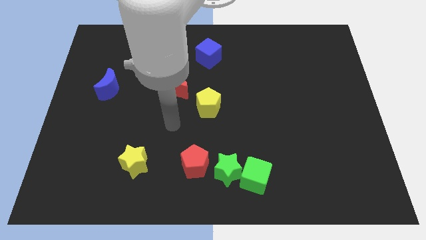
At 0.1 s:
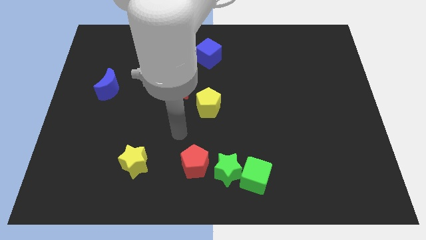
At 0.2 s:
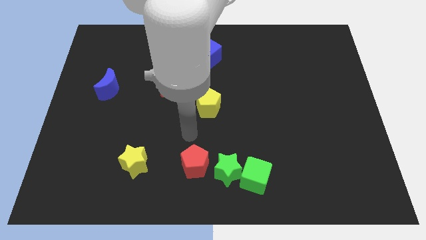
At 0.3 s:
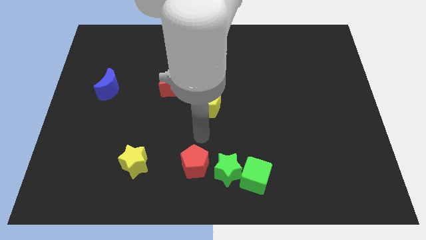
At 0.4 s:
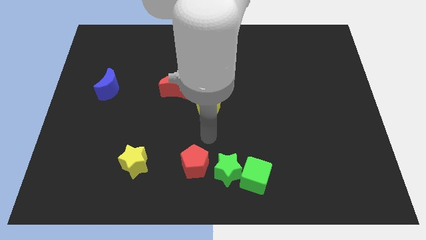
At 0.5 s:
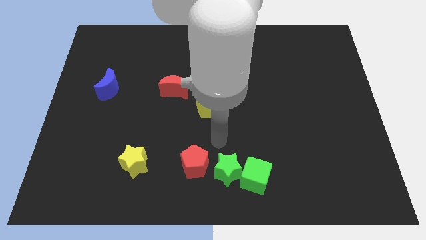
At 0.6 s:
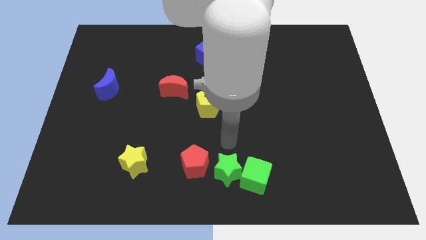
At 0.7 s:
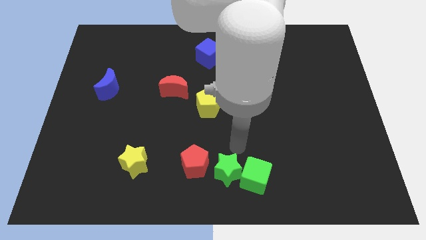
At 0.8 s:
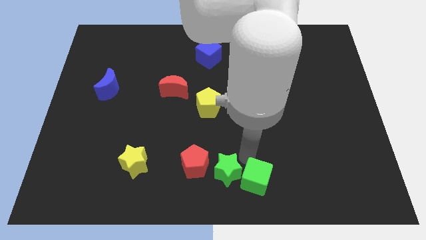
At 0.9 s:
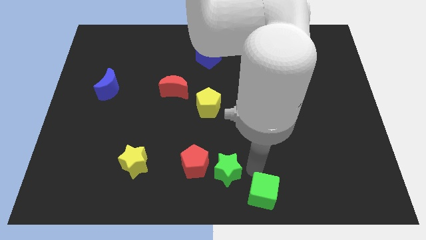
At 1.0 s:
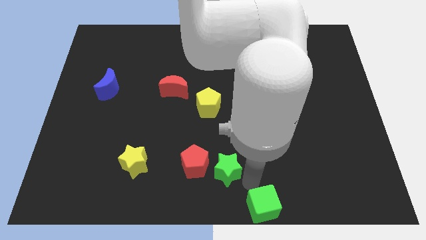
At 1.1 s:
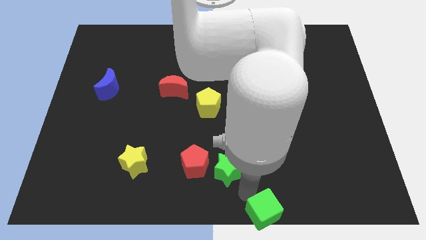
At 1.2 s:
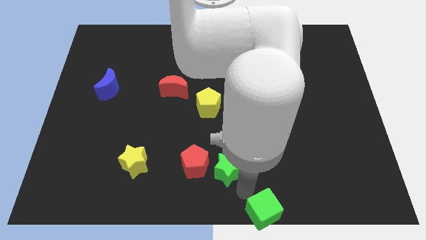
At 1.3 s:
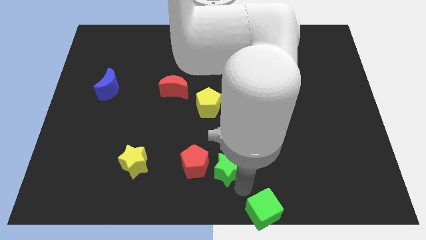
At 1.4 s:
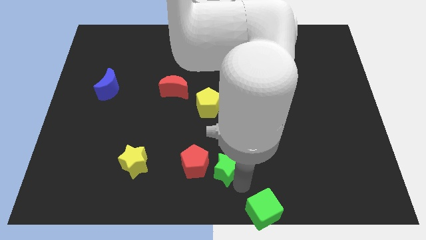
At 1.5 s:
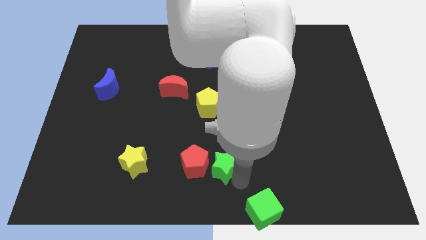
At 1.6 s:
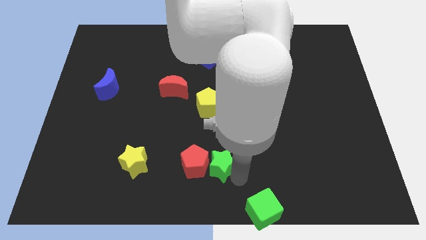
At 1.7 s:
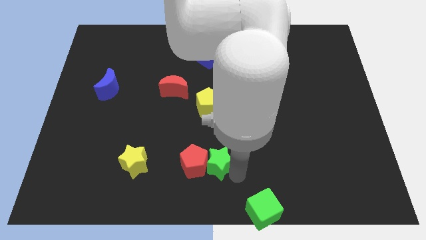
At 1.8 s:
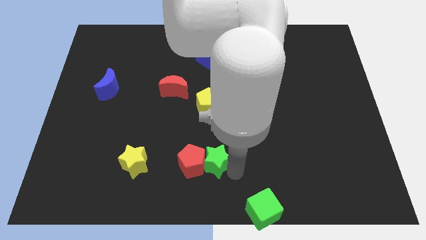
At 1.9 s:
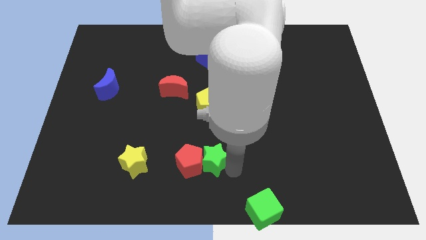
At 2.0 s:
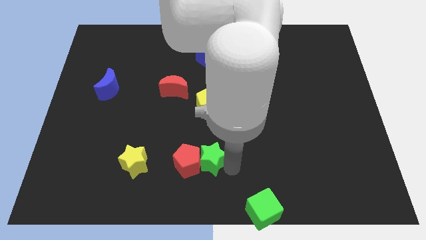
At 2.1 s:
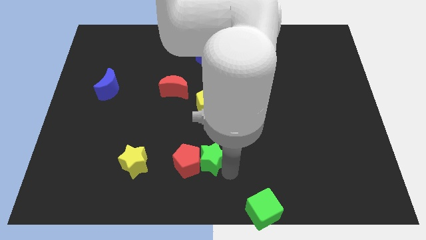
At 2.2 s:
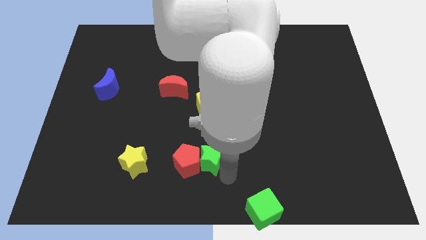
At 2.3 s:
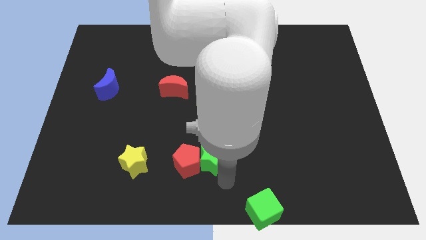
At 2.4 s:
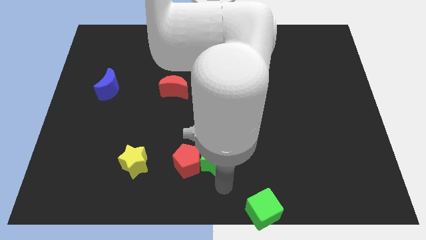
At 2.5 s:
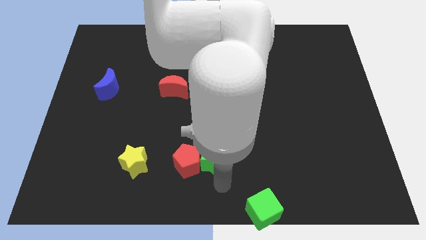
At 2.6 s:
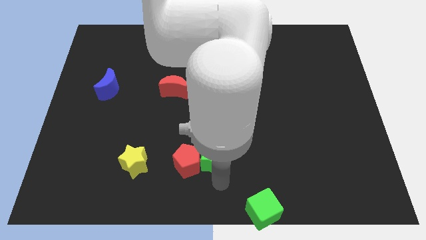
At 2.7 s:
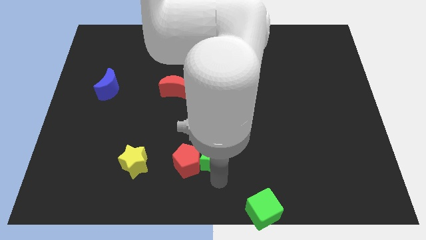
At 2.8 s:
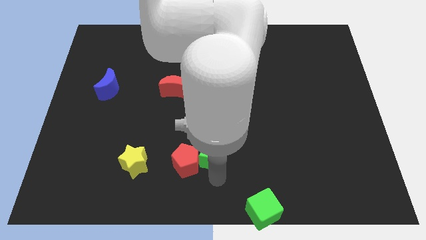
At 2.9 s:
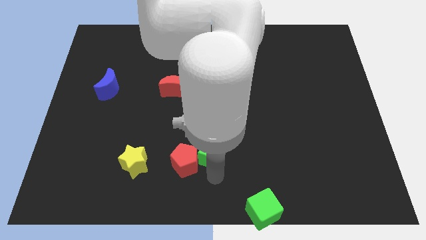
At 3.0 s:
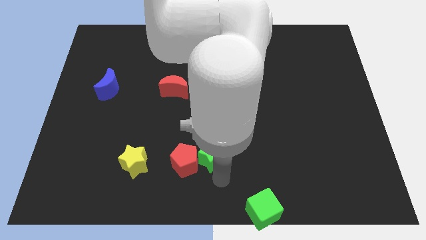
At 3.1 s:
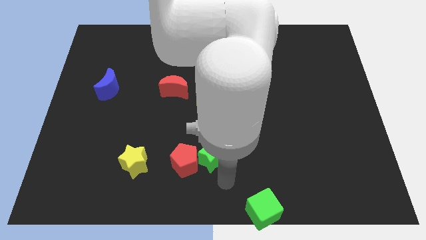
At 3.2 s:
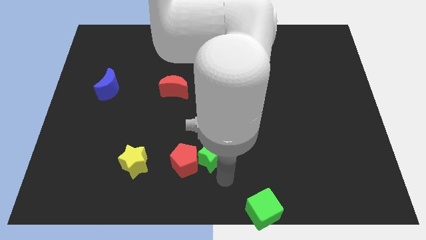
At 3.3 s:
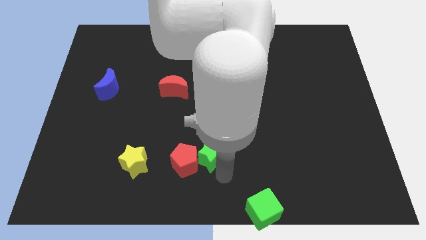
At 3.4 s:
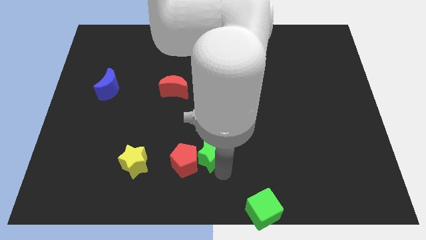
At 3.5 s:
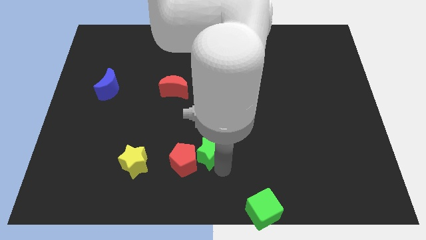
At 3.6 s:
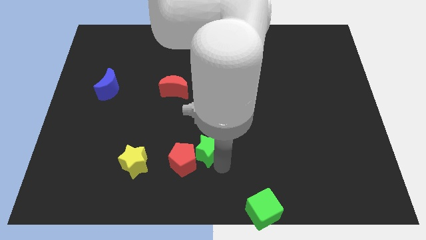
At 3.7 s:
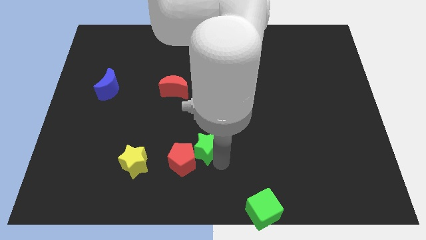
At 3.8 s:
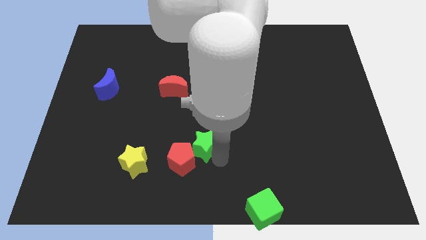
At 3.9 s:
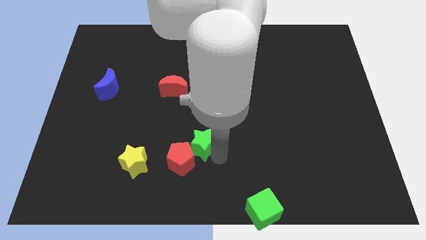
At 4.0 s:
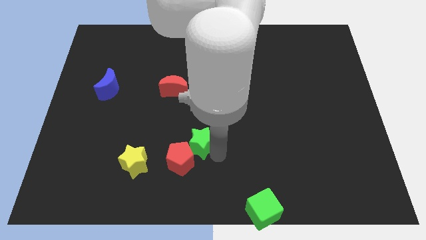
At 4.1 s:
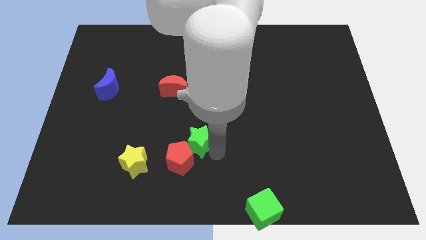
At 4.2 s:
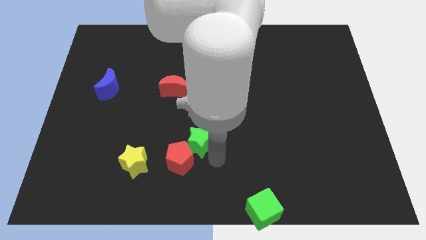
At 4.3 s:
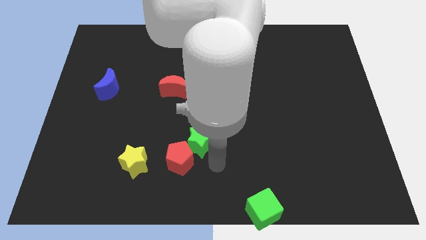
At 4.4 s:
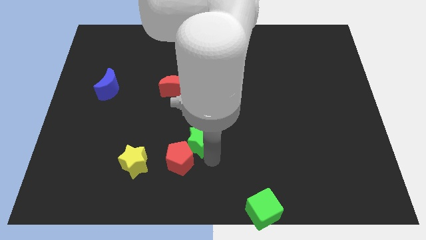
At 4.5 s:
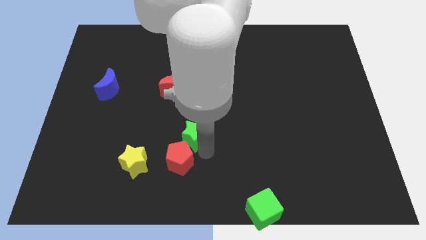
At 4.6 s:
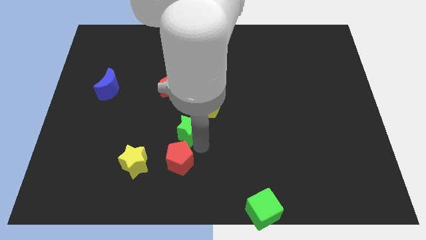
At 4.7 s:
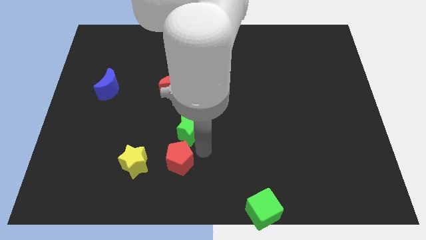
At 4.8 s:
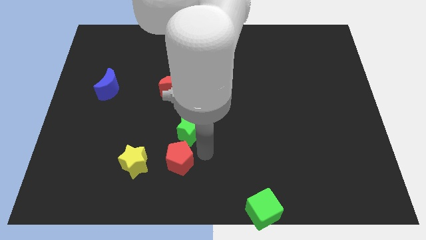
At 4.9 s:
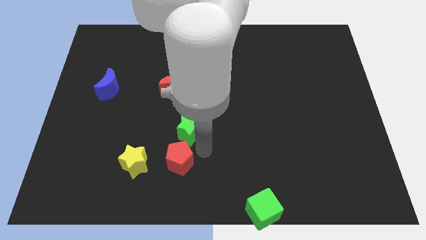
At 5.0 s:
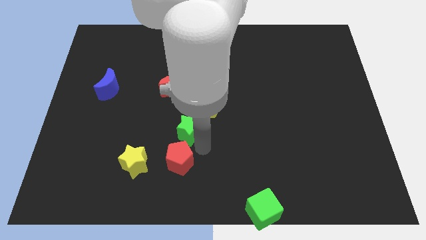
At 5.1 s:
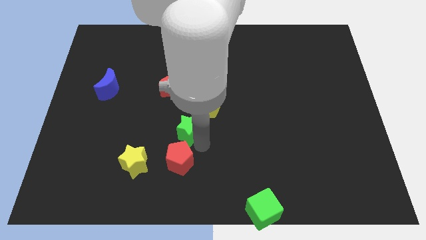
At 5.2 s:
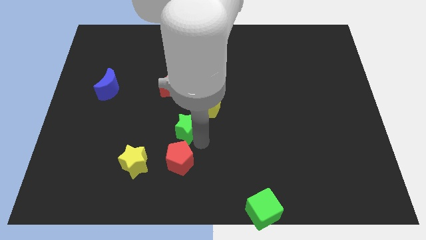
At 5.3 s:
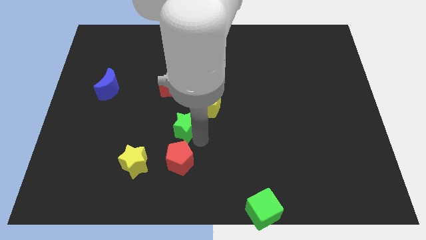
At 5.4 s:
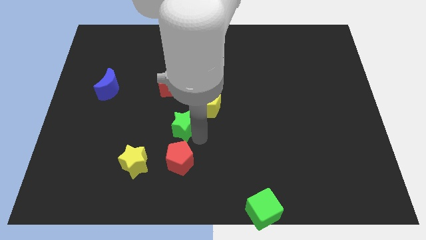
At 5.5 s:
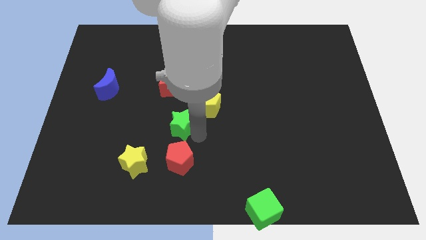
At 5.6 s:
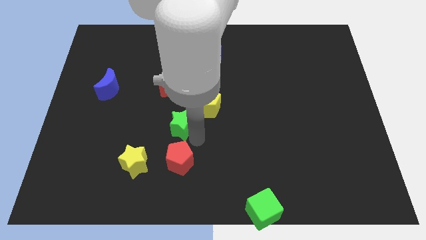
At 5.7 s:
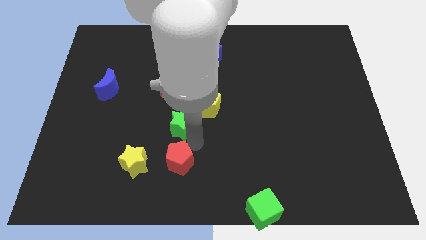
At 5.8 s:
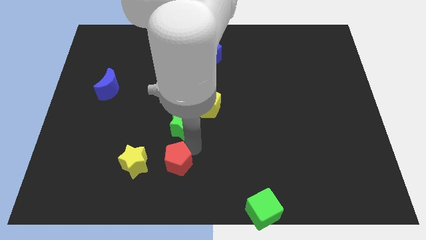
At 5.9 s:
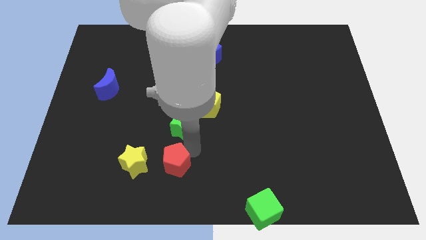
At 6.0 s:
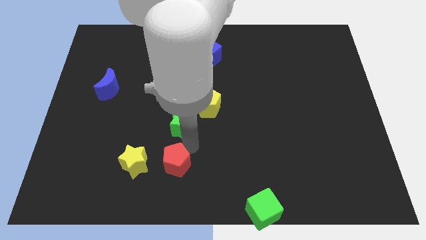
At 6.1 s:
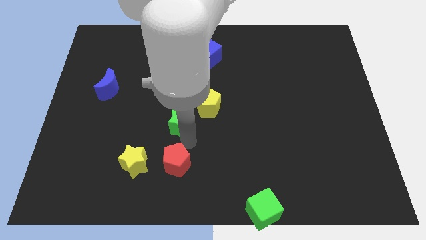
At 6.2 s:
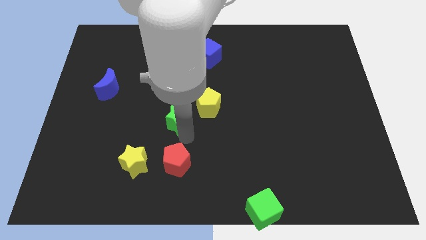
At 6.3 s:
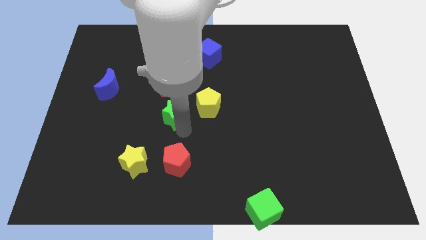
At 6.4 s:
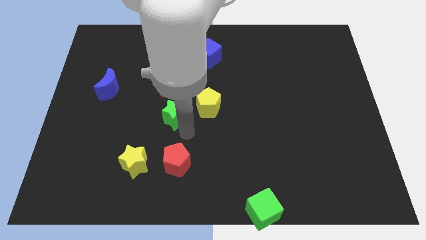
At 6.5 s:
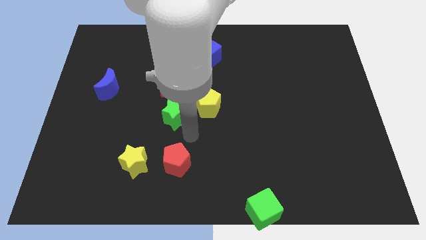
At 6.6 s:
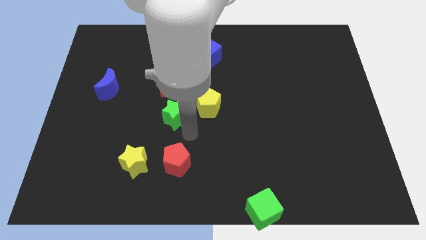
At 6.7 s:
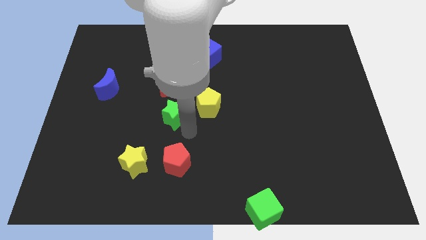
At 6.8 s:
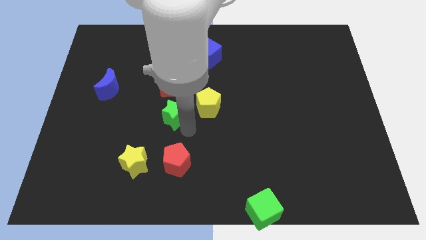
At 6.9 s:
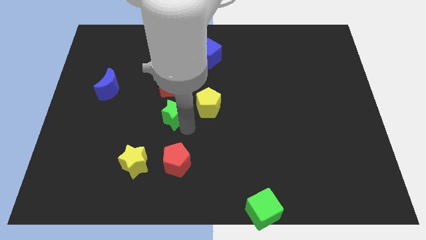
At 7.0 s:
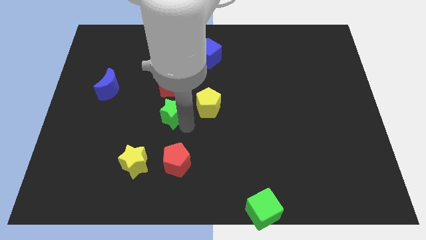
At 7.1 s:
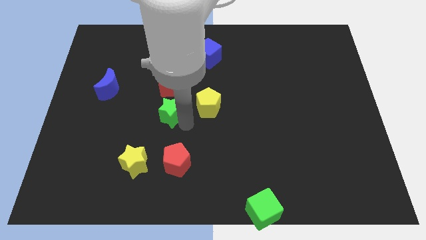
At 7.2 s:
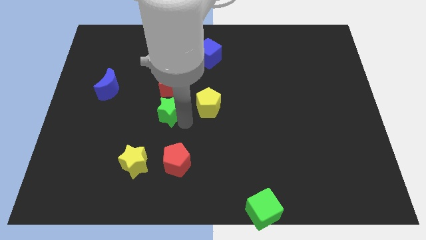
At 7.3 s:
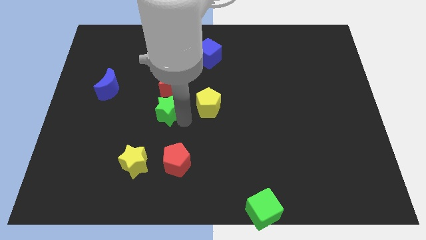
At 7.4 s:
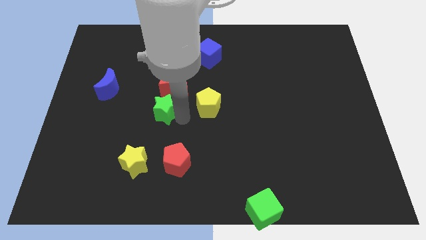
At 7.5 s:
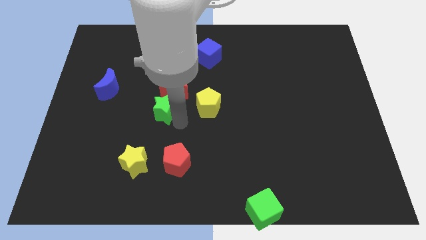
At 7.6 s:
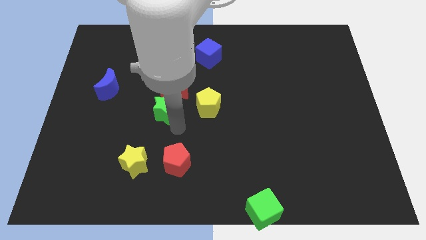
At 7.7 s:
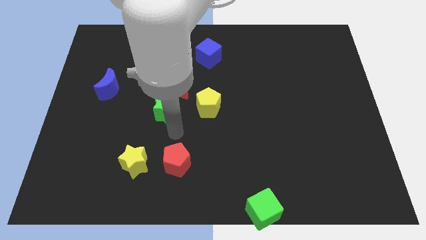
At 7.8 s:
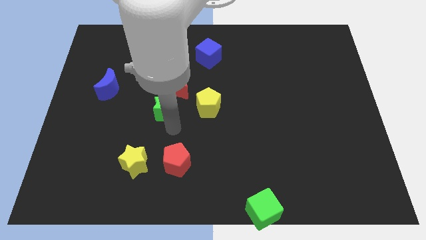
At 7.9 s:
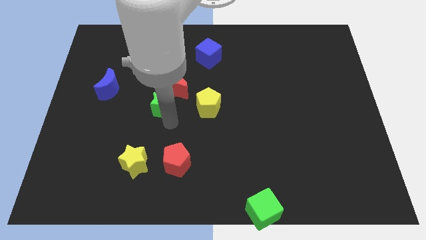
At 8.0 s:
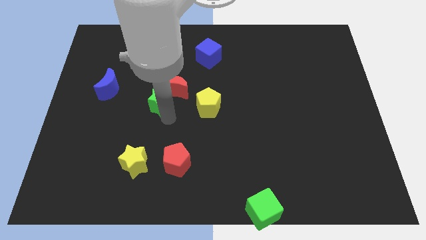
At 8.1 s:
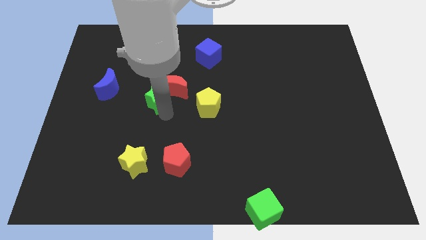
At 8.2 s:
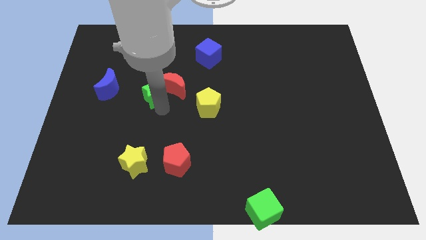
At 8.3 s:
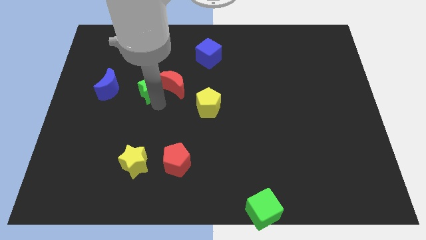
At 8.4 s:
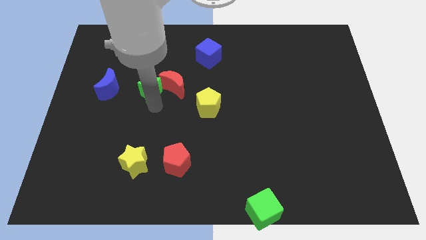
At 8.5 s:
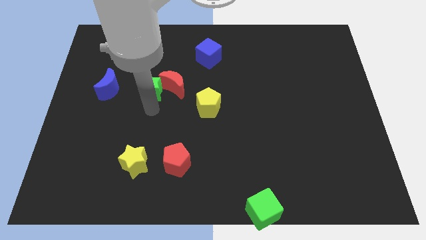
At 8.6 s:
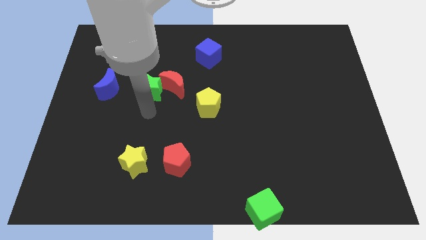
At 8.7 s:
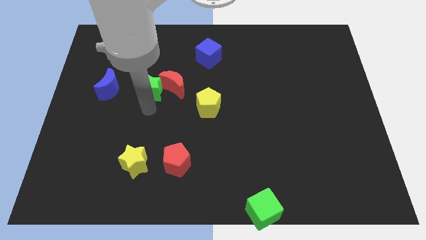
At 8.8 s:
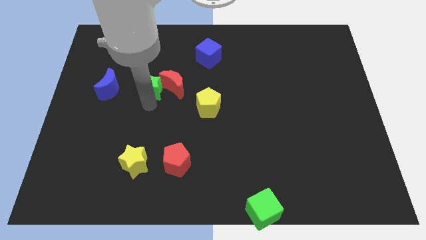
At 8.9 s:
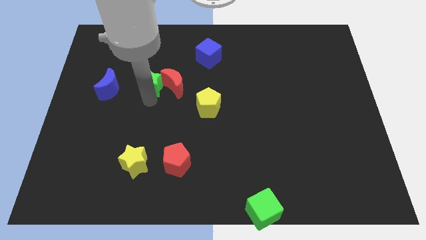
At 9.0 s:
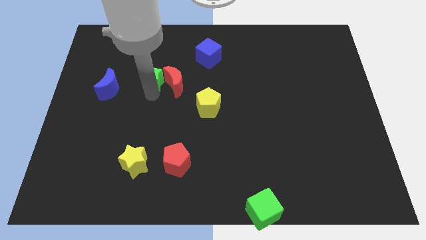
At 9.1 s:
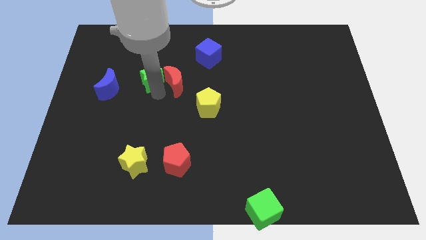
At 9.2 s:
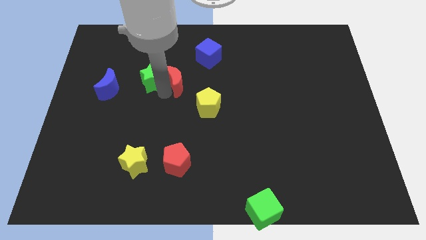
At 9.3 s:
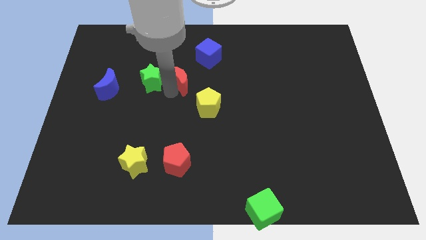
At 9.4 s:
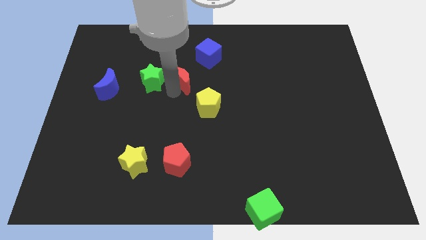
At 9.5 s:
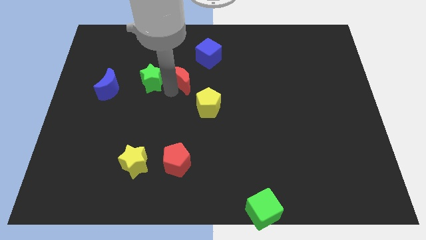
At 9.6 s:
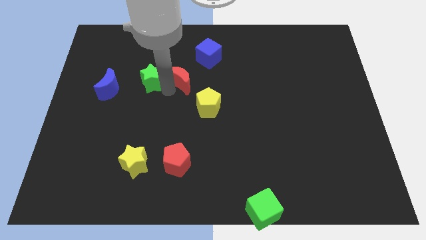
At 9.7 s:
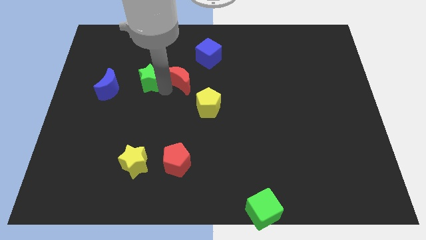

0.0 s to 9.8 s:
slide the green star to the top right side of the blue moon
